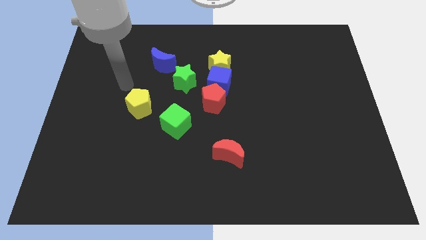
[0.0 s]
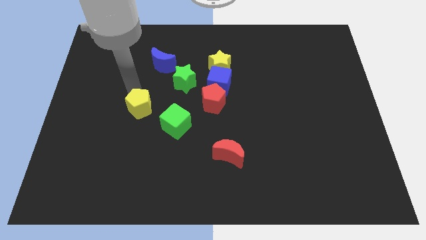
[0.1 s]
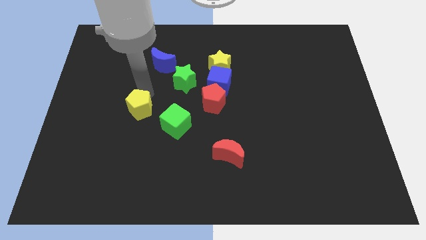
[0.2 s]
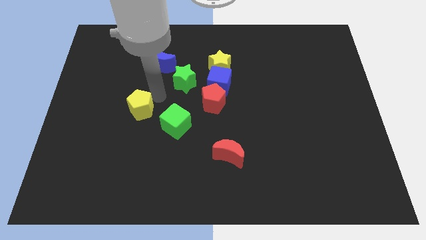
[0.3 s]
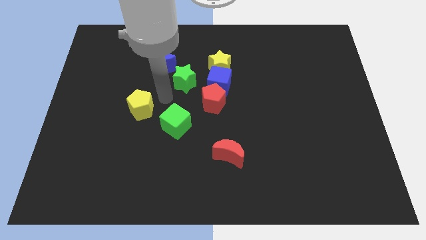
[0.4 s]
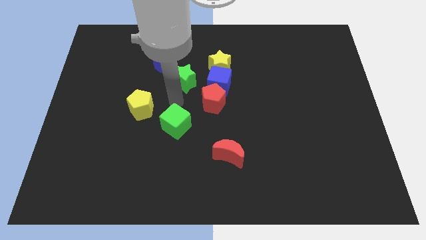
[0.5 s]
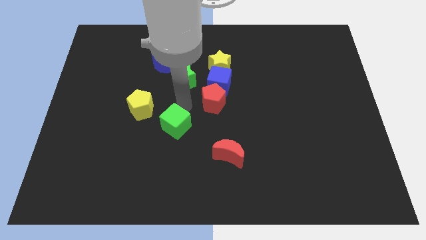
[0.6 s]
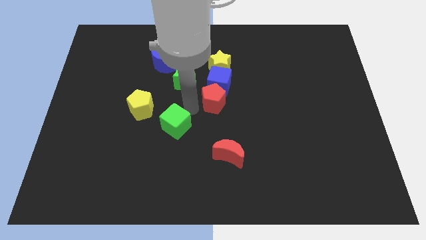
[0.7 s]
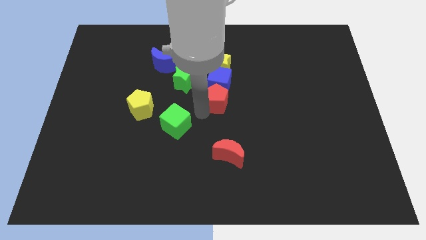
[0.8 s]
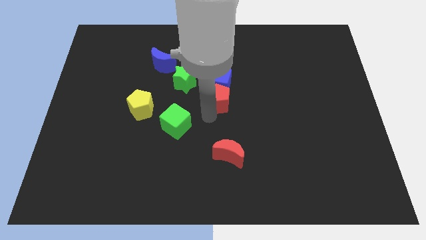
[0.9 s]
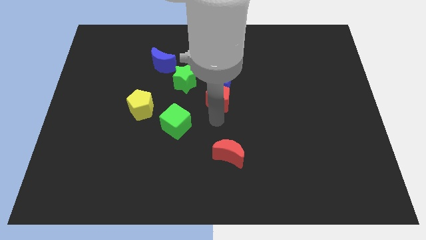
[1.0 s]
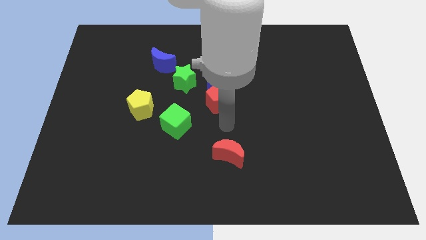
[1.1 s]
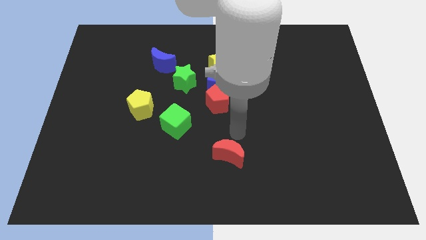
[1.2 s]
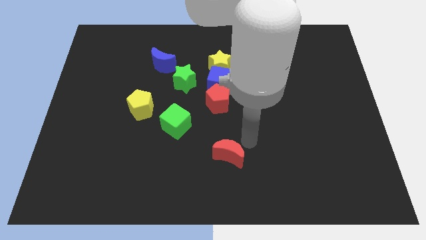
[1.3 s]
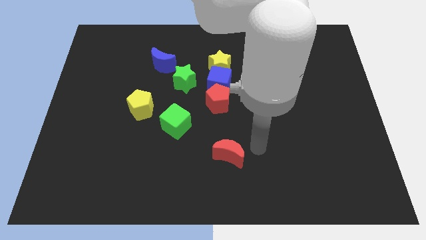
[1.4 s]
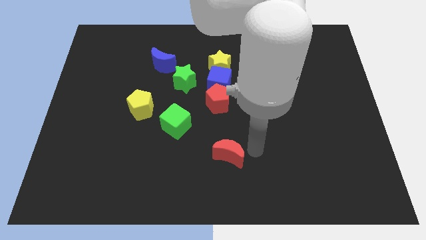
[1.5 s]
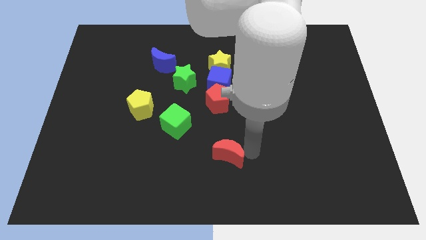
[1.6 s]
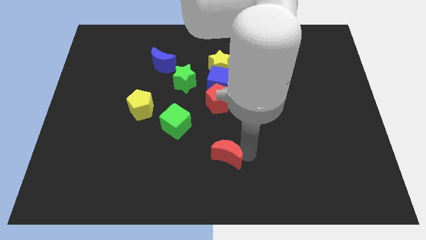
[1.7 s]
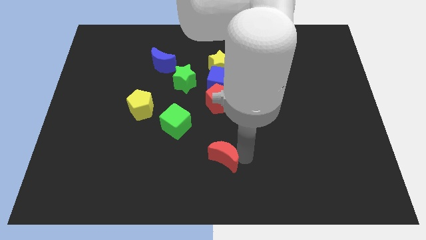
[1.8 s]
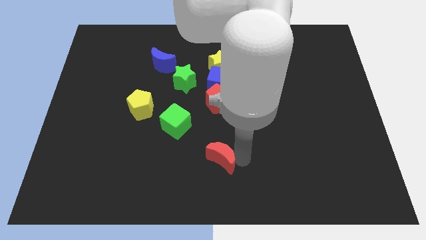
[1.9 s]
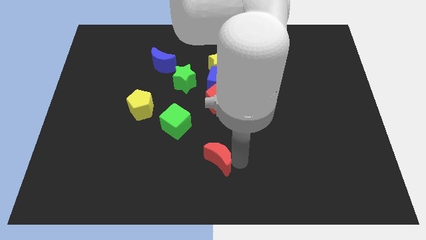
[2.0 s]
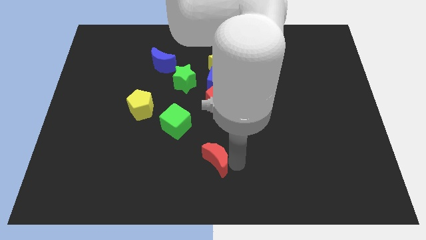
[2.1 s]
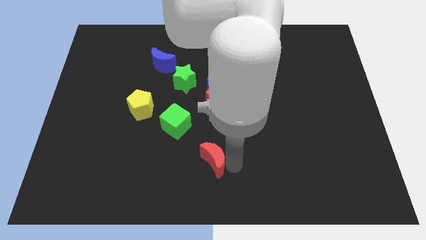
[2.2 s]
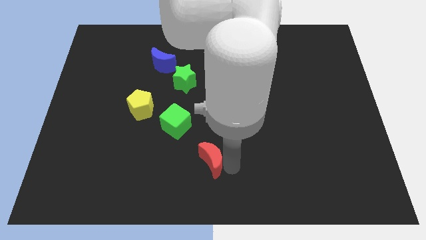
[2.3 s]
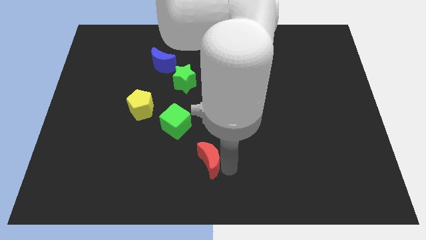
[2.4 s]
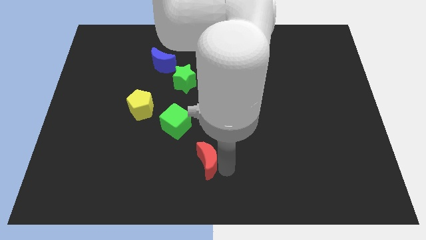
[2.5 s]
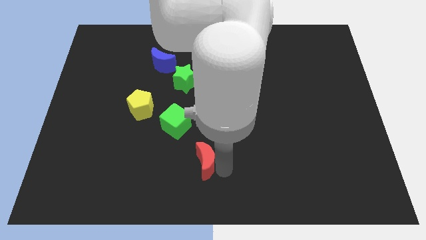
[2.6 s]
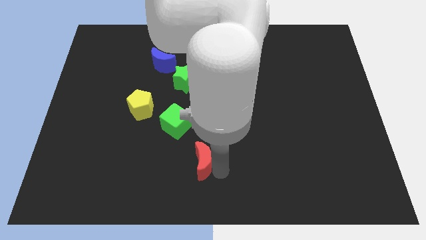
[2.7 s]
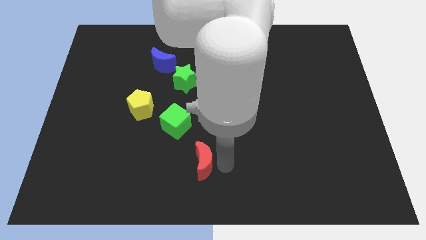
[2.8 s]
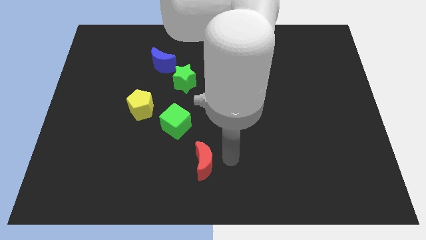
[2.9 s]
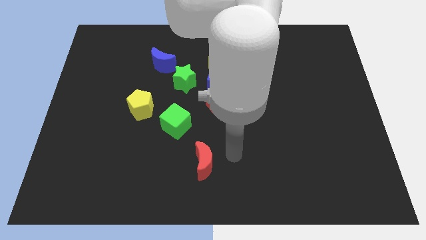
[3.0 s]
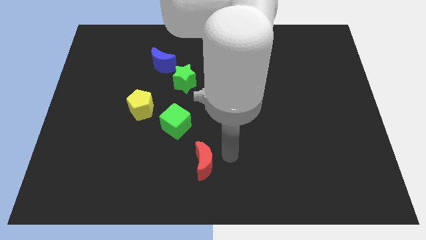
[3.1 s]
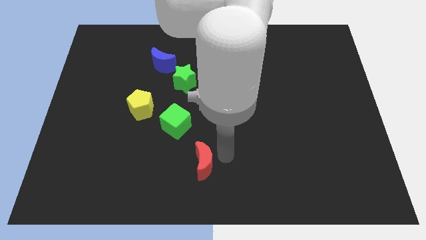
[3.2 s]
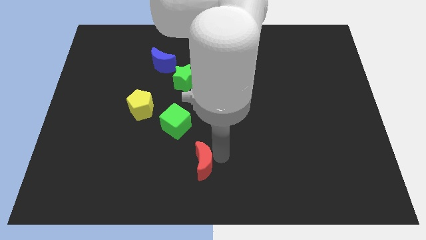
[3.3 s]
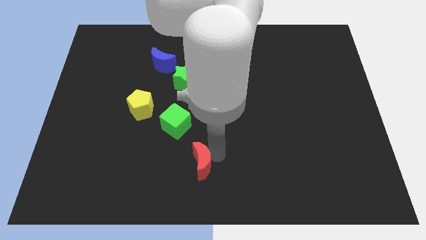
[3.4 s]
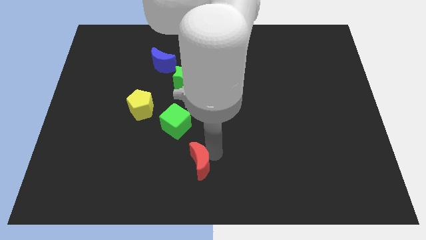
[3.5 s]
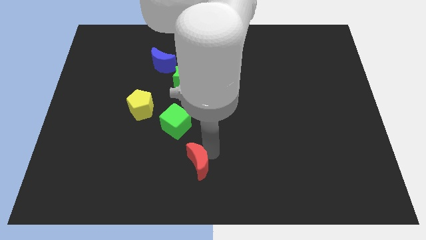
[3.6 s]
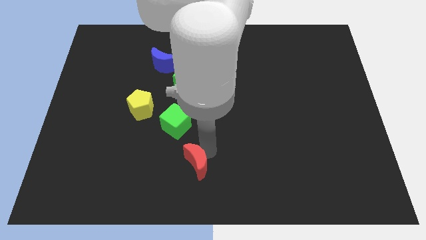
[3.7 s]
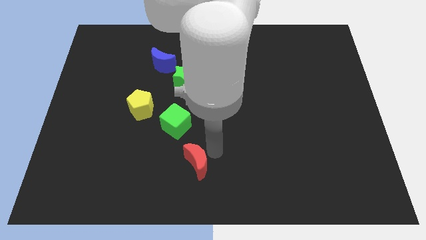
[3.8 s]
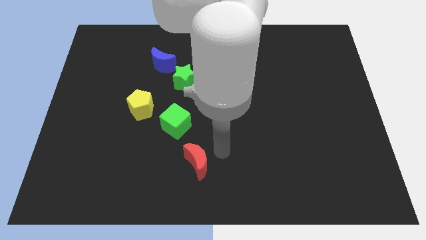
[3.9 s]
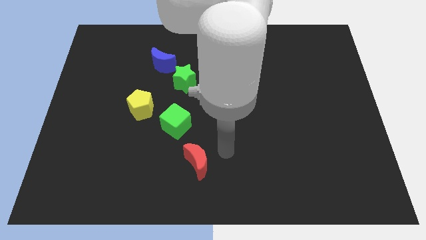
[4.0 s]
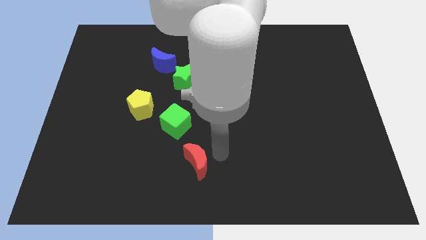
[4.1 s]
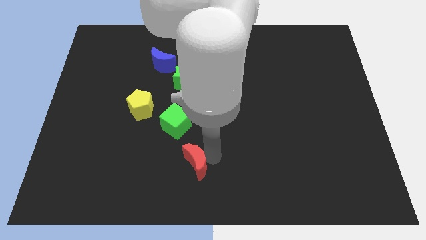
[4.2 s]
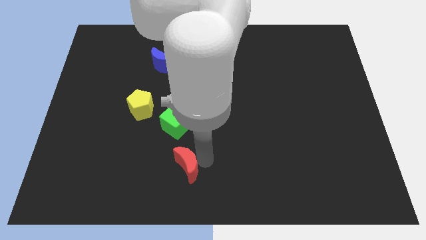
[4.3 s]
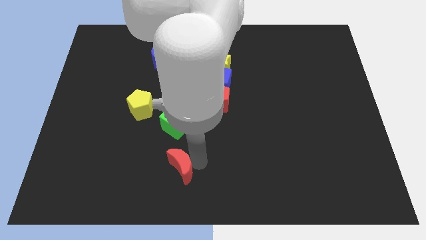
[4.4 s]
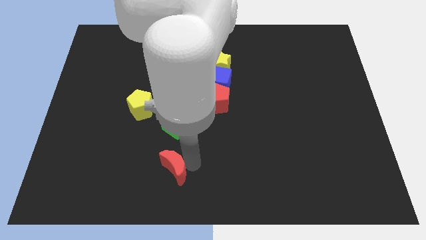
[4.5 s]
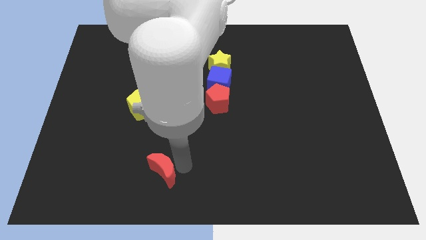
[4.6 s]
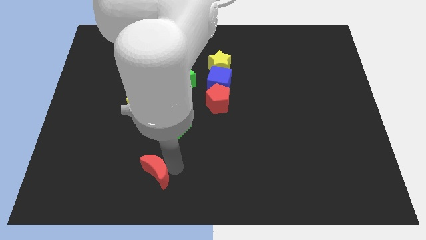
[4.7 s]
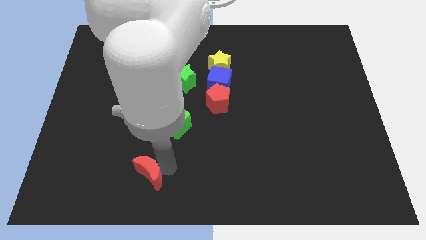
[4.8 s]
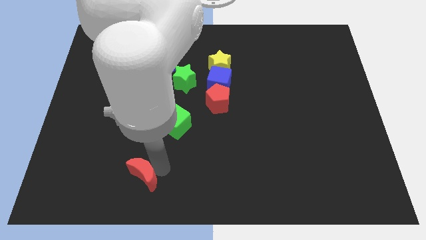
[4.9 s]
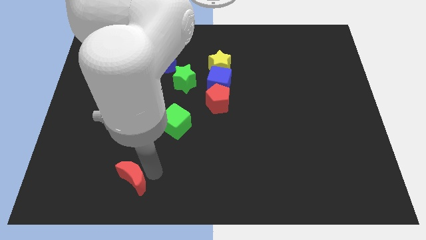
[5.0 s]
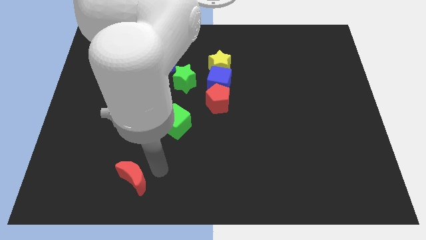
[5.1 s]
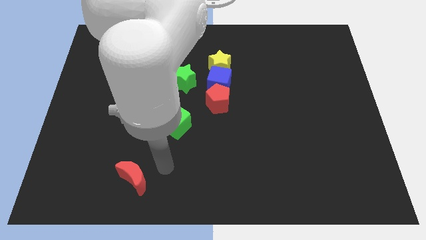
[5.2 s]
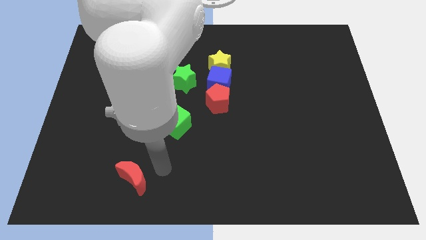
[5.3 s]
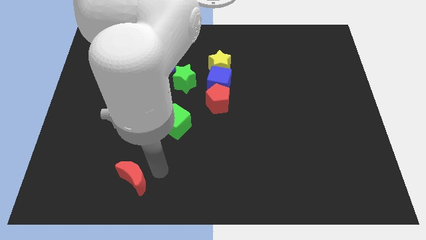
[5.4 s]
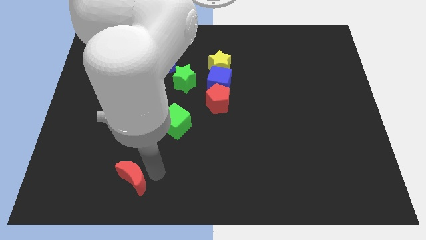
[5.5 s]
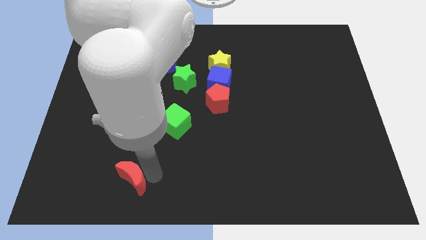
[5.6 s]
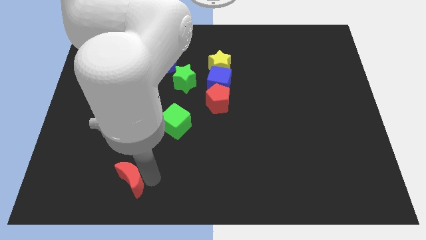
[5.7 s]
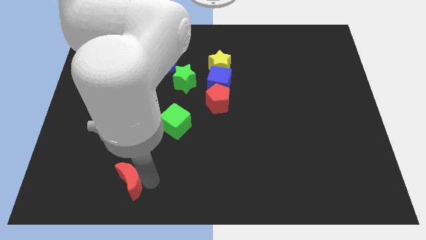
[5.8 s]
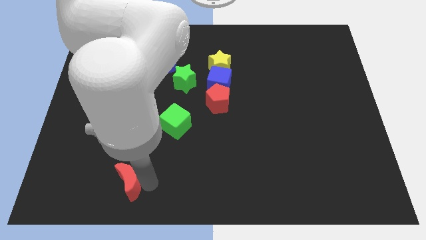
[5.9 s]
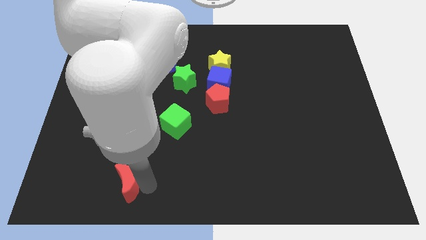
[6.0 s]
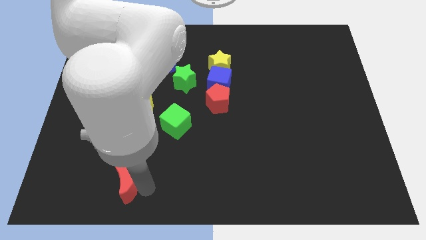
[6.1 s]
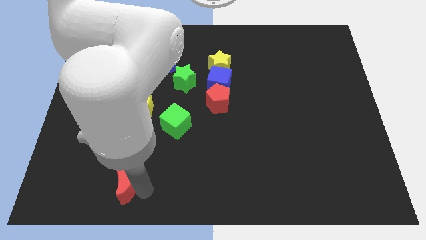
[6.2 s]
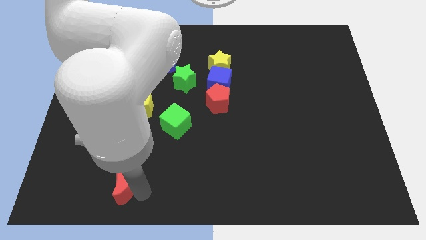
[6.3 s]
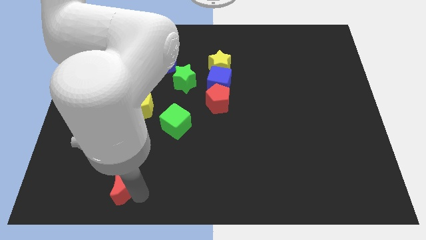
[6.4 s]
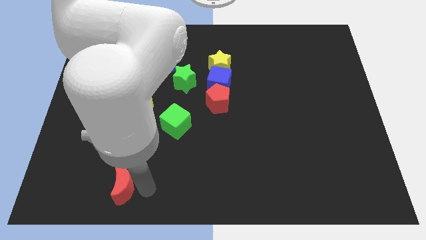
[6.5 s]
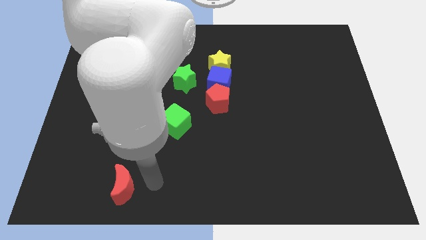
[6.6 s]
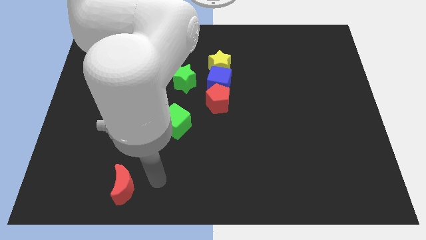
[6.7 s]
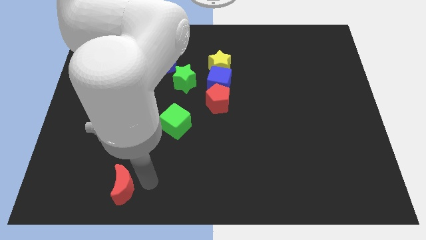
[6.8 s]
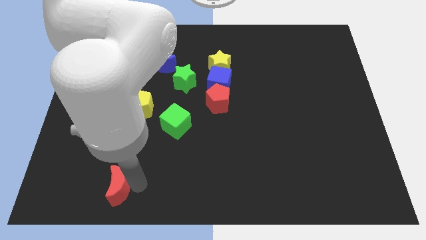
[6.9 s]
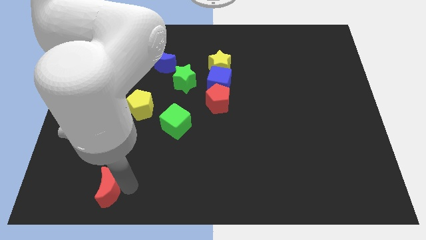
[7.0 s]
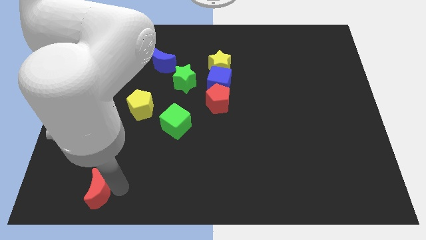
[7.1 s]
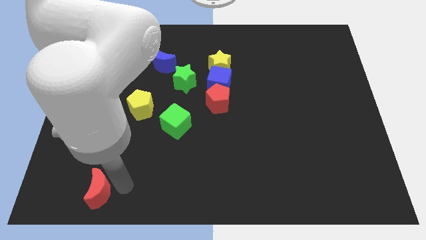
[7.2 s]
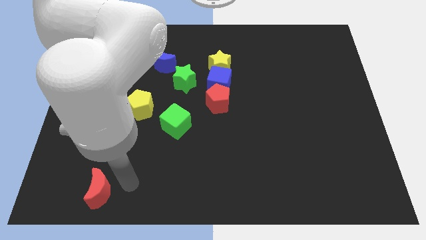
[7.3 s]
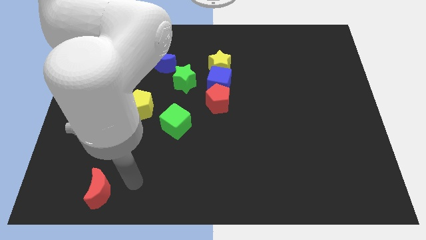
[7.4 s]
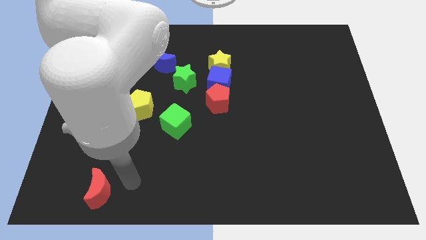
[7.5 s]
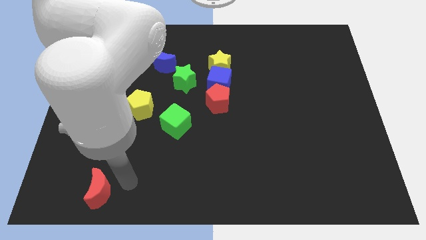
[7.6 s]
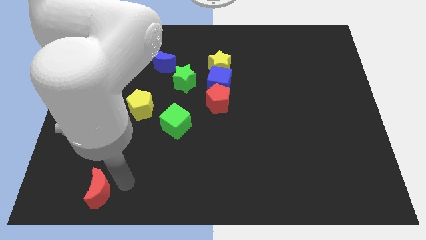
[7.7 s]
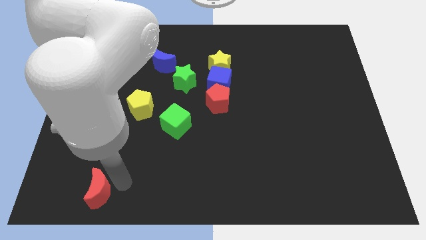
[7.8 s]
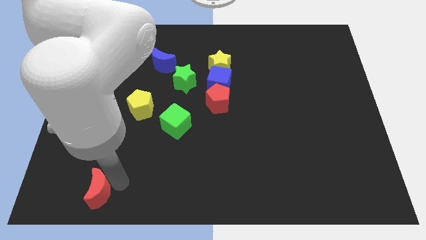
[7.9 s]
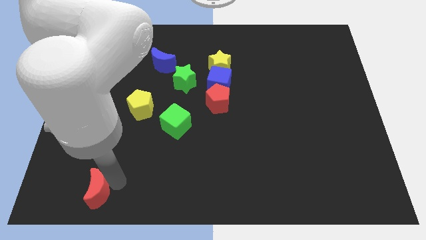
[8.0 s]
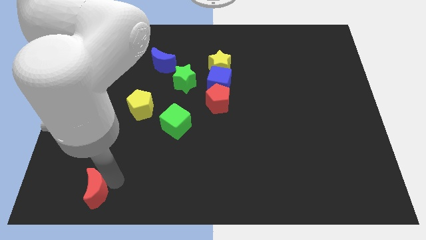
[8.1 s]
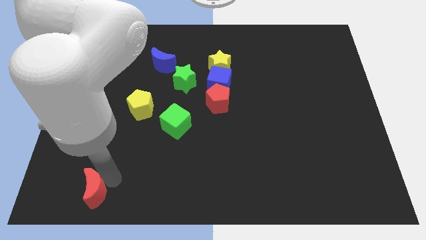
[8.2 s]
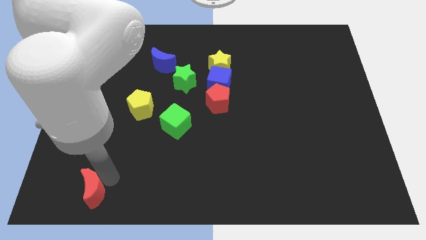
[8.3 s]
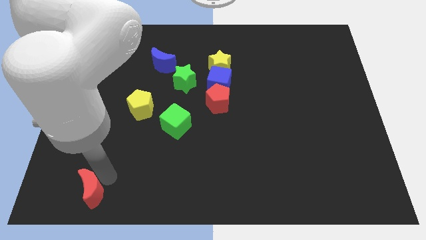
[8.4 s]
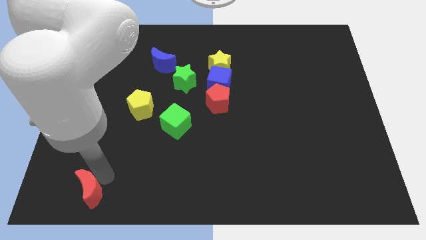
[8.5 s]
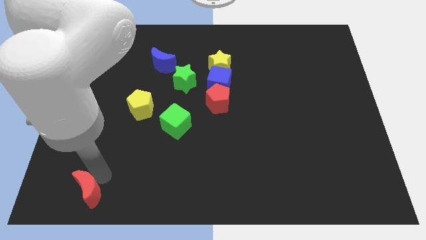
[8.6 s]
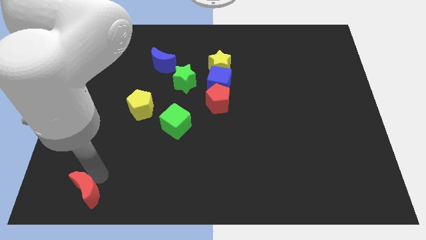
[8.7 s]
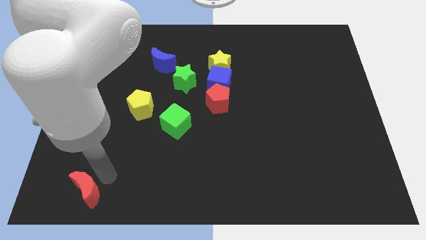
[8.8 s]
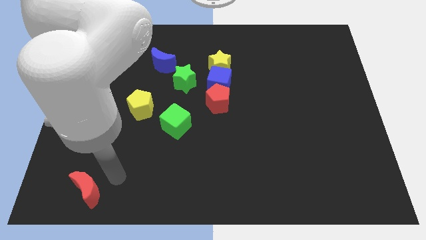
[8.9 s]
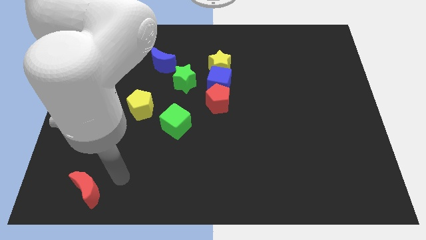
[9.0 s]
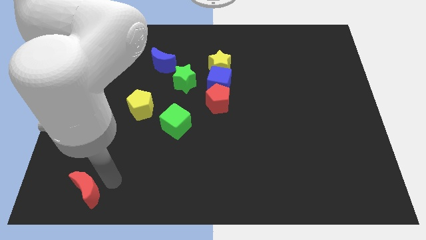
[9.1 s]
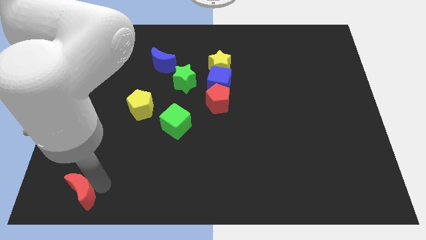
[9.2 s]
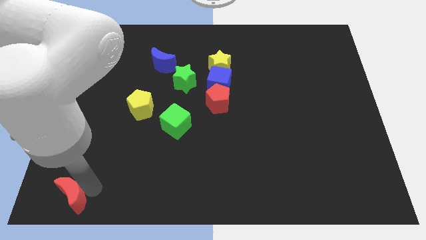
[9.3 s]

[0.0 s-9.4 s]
move the red moon to the bottom left corner
